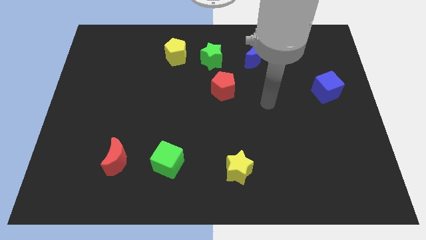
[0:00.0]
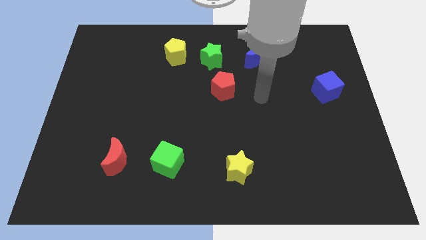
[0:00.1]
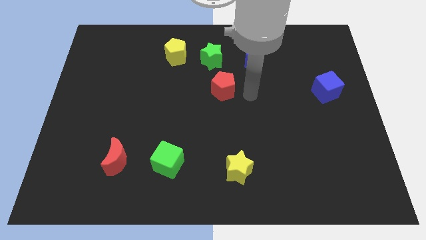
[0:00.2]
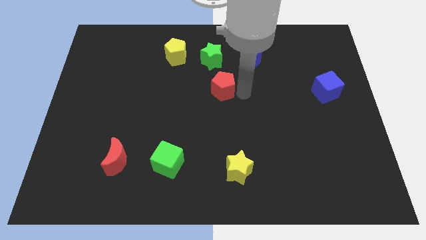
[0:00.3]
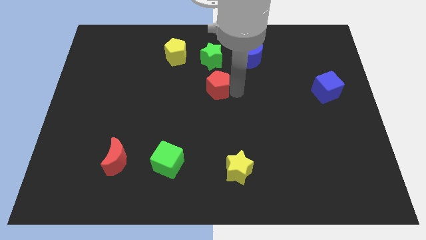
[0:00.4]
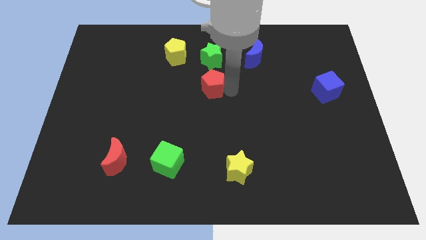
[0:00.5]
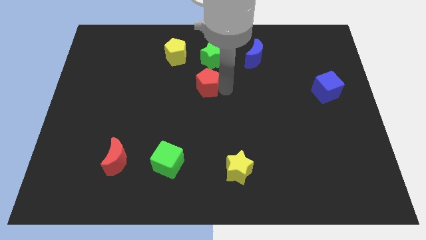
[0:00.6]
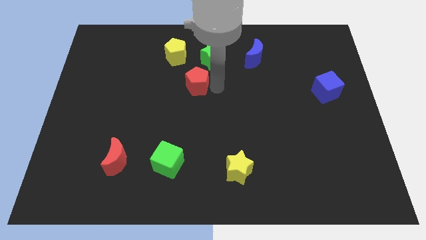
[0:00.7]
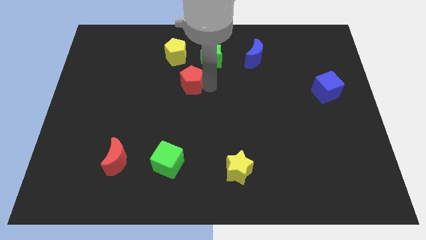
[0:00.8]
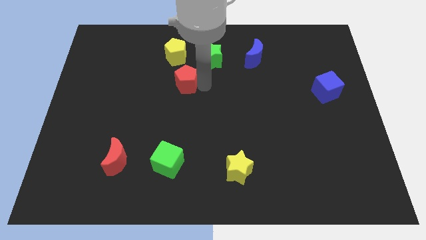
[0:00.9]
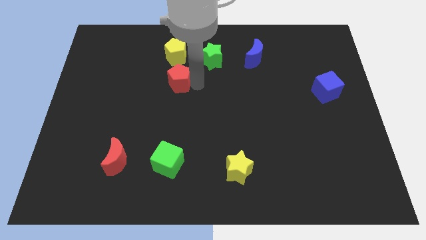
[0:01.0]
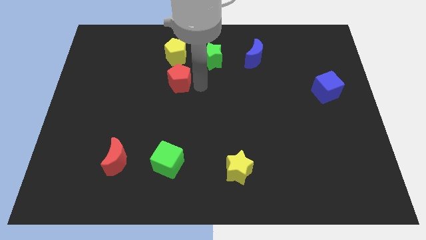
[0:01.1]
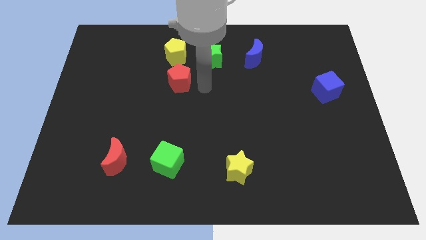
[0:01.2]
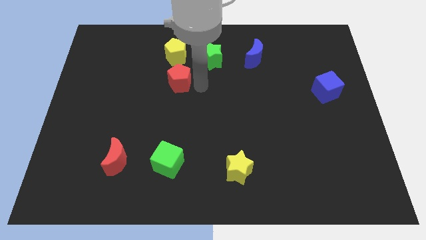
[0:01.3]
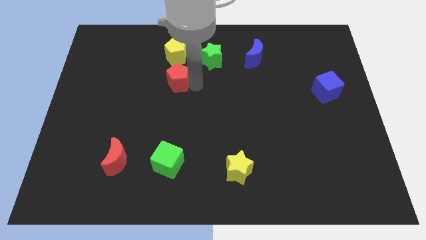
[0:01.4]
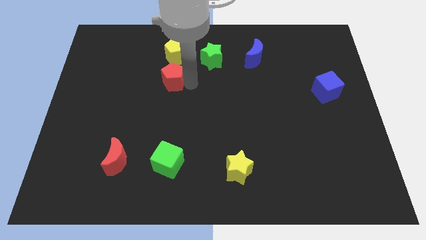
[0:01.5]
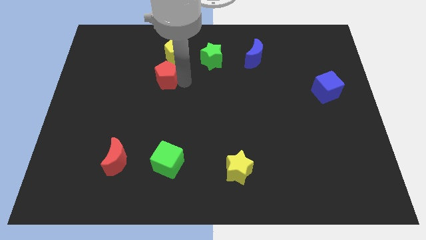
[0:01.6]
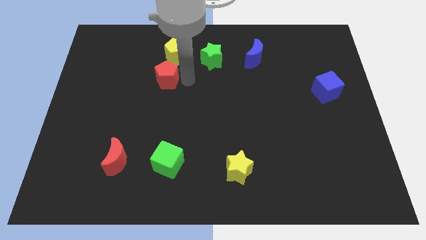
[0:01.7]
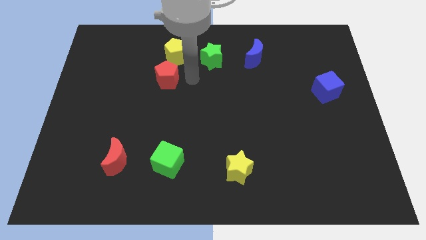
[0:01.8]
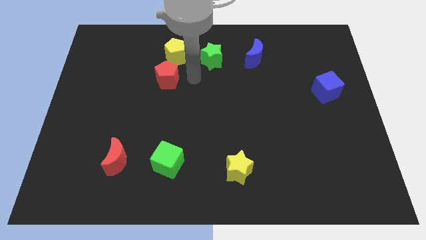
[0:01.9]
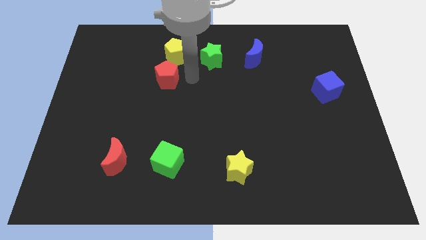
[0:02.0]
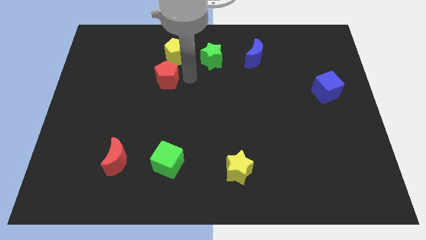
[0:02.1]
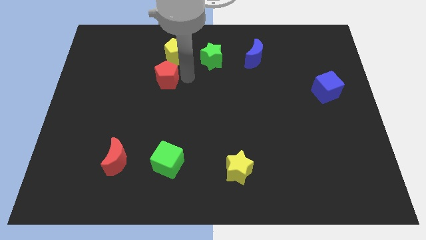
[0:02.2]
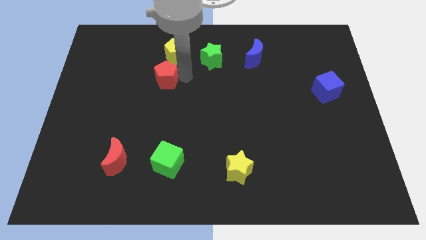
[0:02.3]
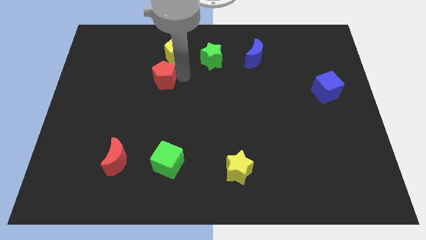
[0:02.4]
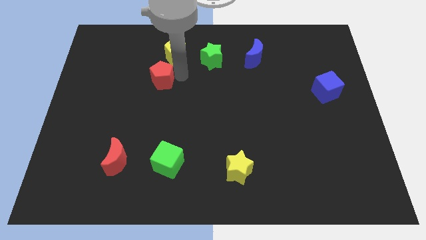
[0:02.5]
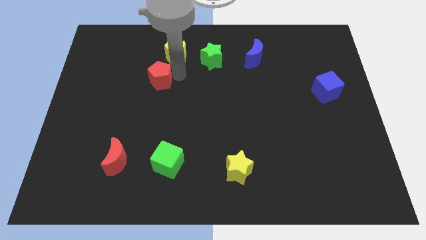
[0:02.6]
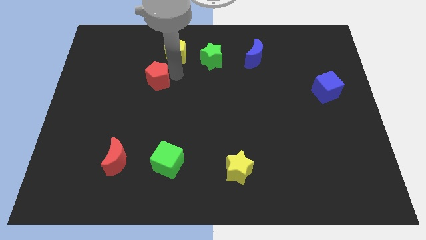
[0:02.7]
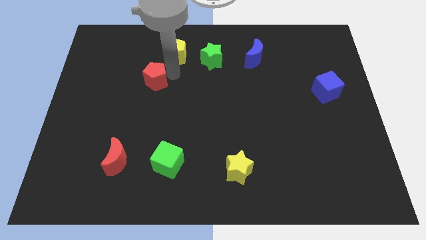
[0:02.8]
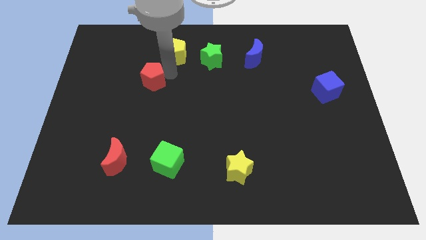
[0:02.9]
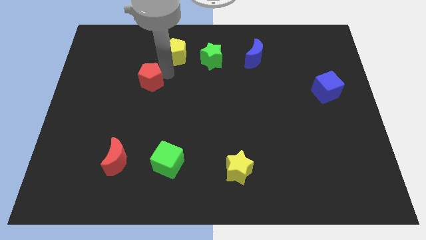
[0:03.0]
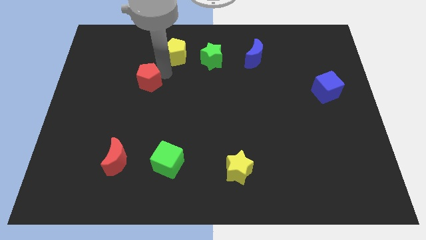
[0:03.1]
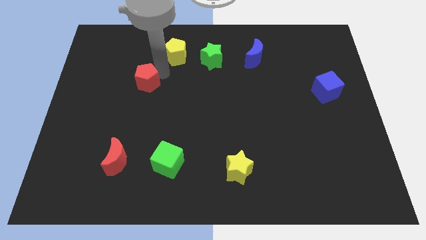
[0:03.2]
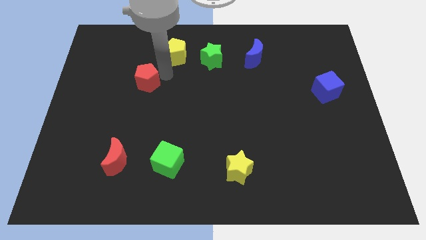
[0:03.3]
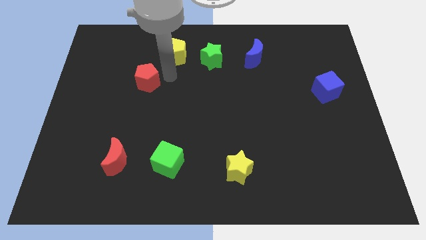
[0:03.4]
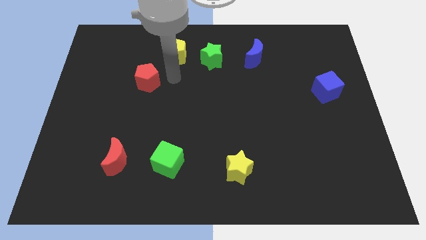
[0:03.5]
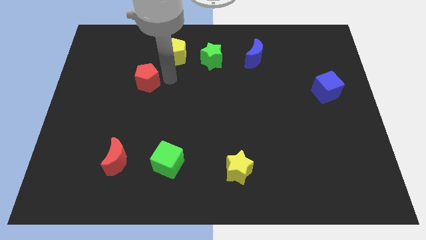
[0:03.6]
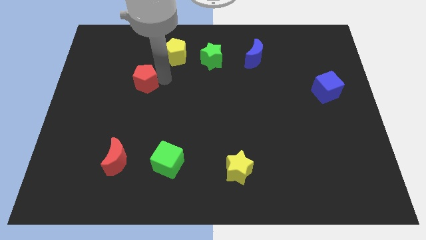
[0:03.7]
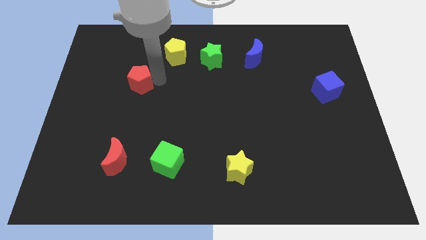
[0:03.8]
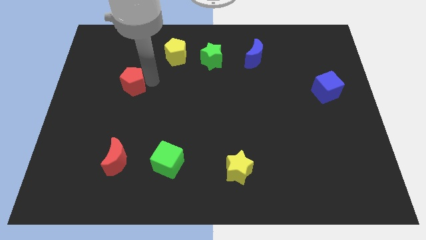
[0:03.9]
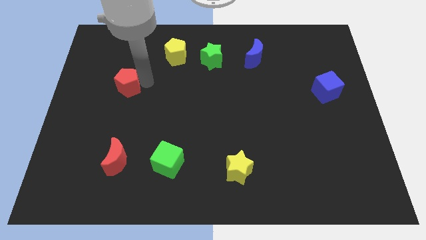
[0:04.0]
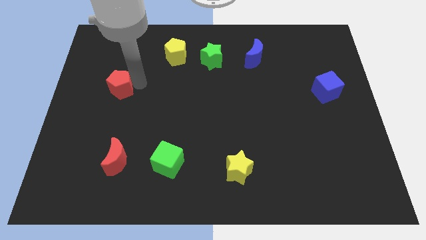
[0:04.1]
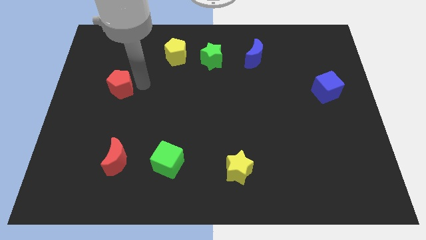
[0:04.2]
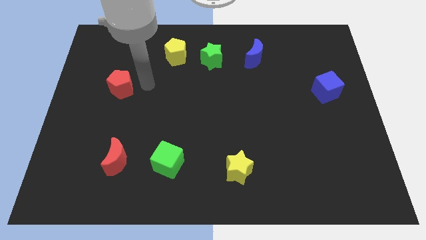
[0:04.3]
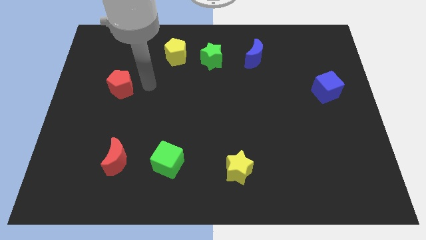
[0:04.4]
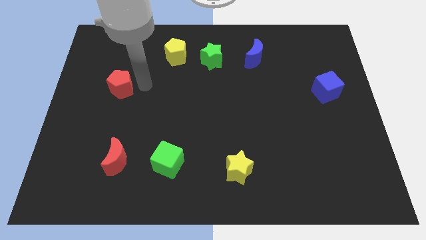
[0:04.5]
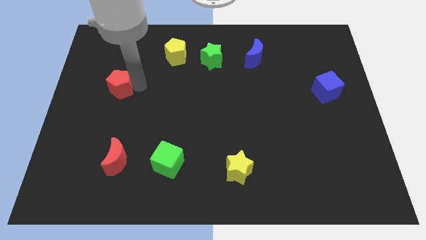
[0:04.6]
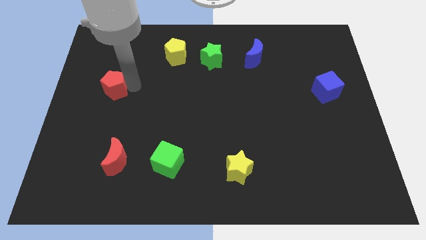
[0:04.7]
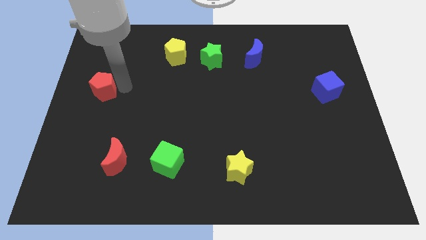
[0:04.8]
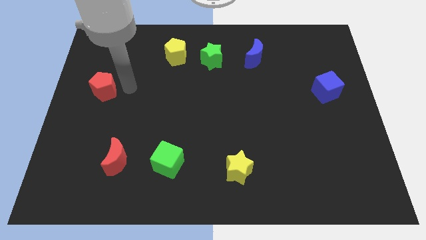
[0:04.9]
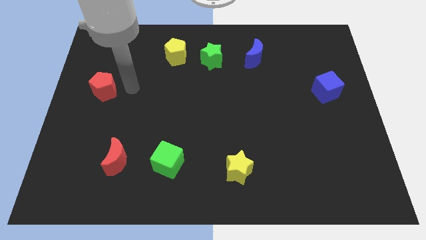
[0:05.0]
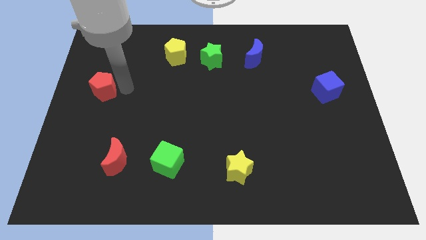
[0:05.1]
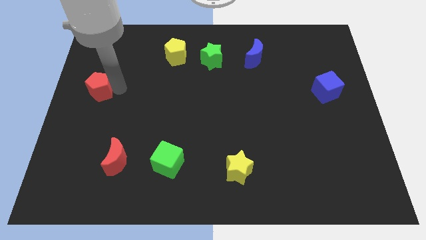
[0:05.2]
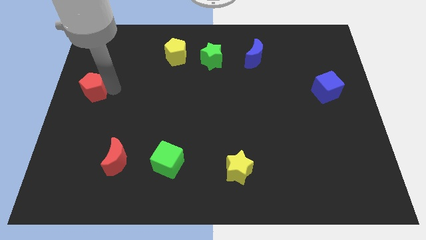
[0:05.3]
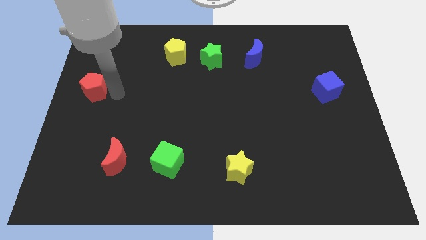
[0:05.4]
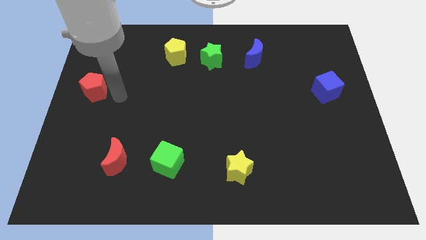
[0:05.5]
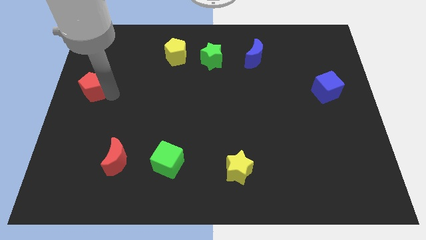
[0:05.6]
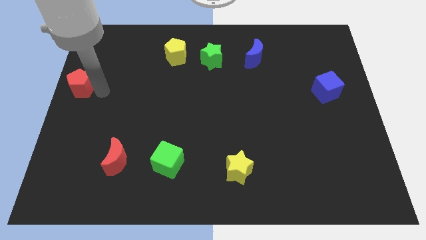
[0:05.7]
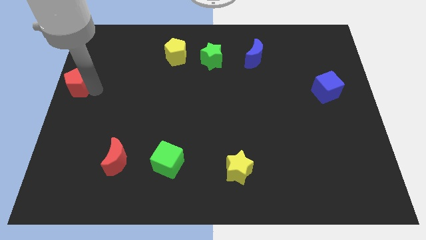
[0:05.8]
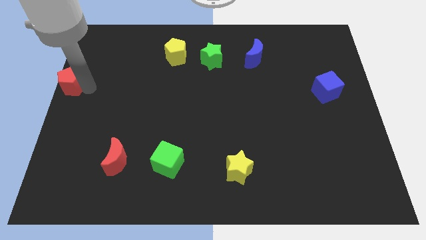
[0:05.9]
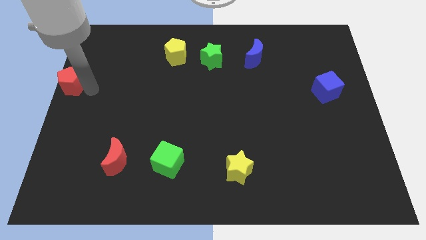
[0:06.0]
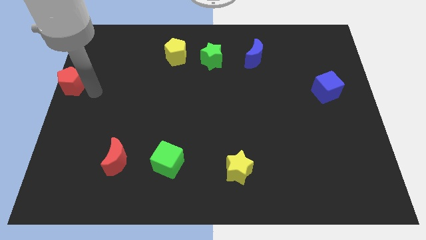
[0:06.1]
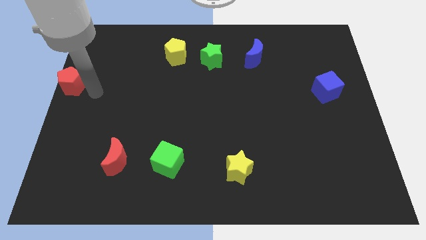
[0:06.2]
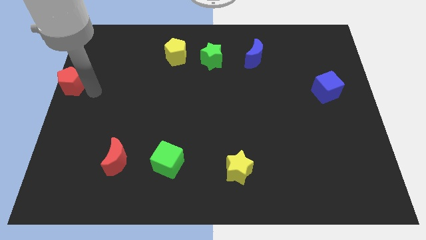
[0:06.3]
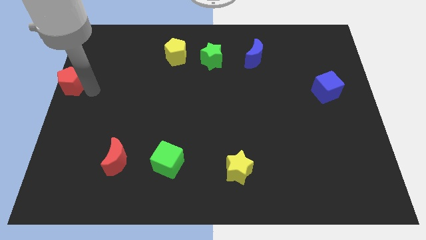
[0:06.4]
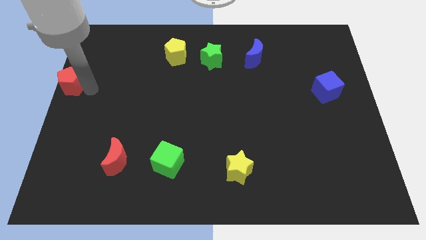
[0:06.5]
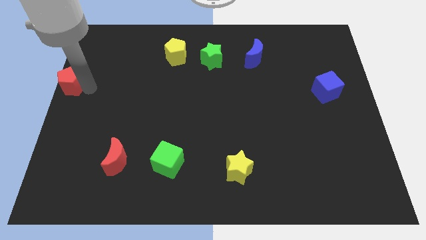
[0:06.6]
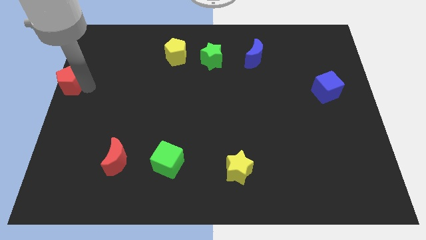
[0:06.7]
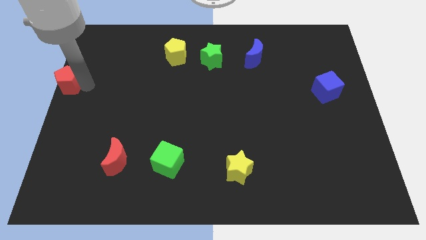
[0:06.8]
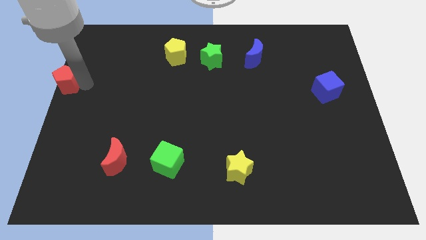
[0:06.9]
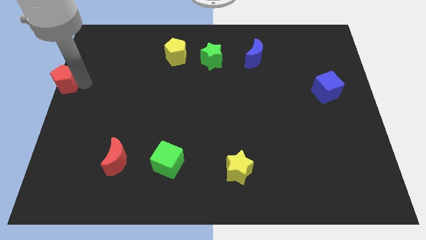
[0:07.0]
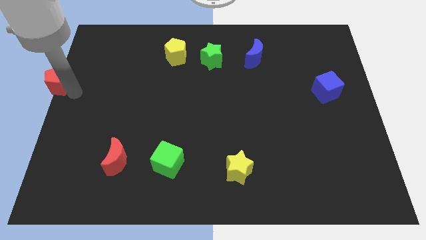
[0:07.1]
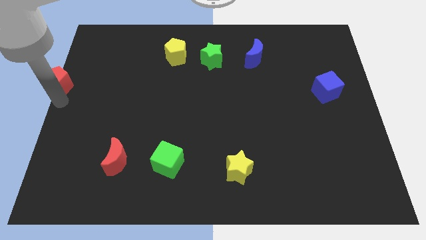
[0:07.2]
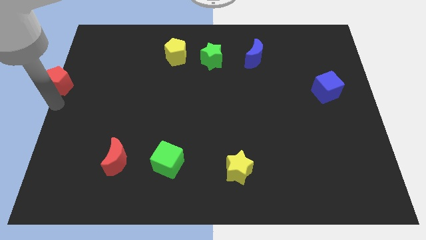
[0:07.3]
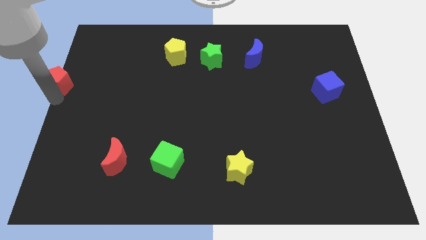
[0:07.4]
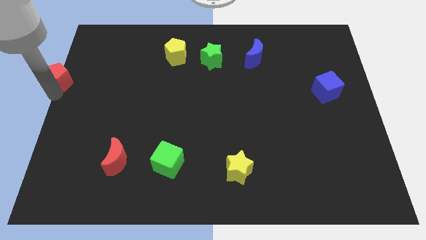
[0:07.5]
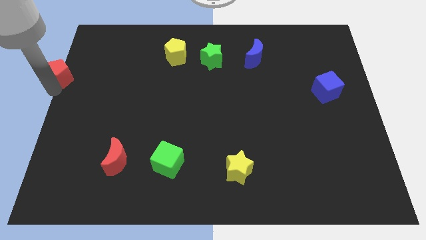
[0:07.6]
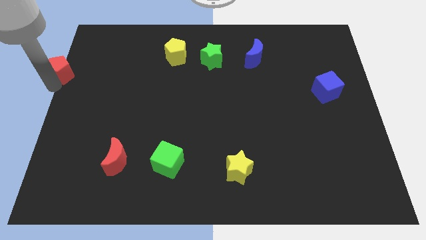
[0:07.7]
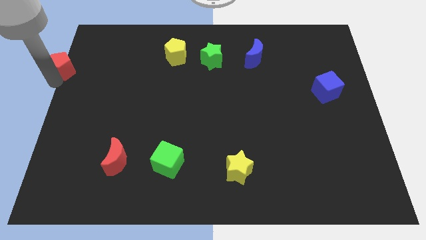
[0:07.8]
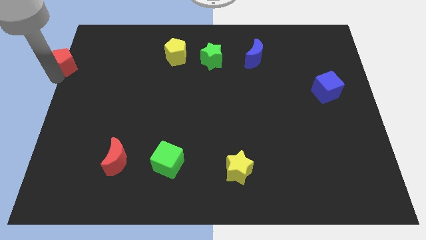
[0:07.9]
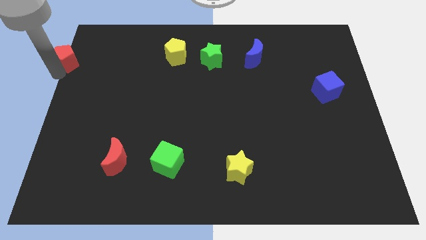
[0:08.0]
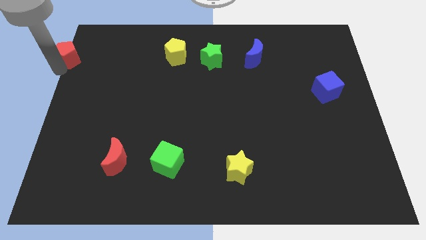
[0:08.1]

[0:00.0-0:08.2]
push the red pentagon to the top left of the board
